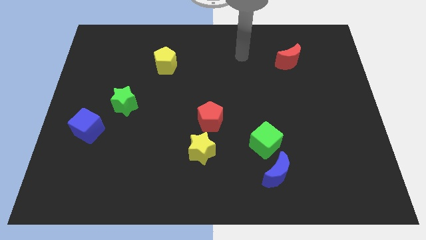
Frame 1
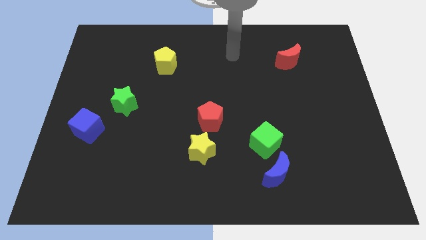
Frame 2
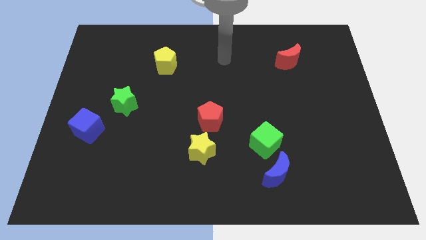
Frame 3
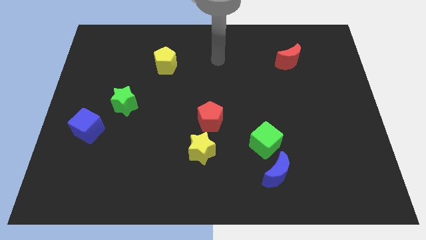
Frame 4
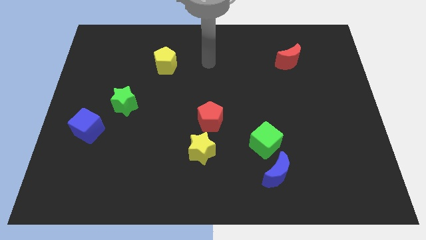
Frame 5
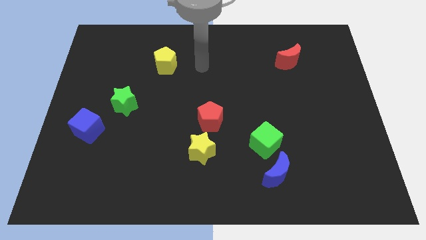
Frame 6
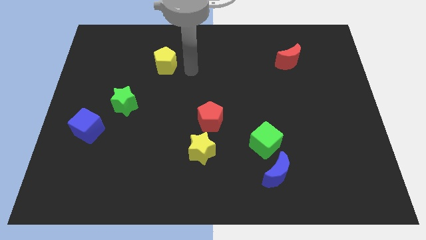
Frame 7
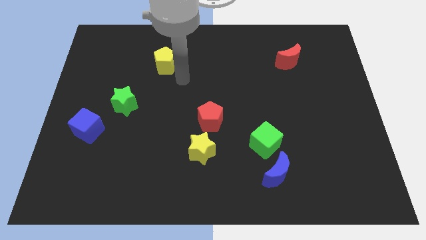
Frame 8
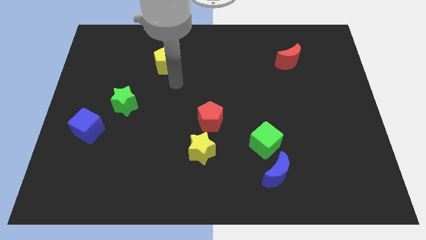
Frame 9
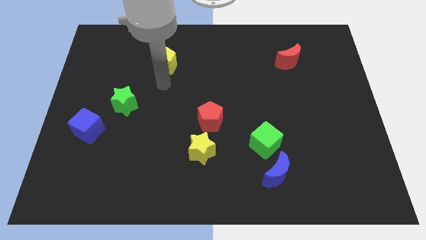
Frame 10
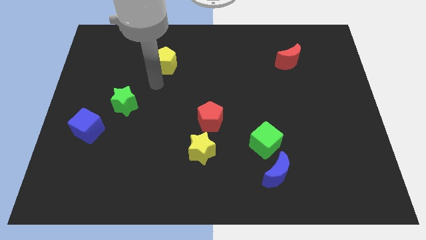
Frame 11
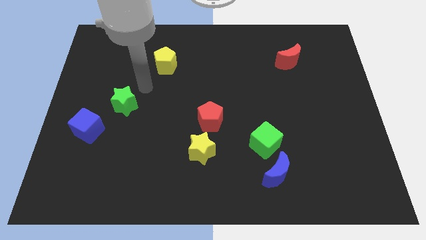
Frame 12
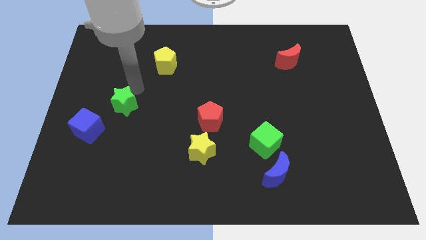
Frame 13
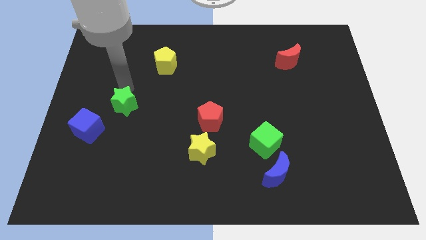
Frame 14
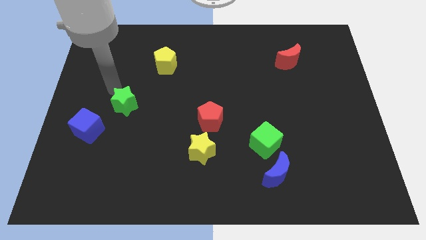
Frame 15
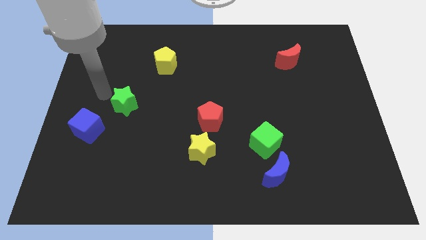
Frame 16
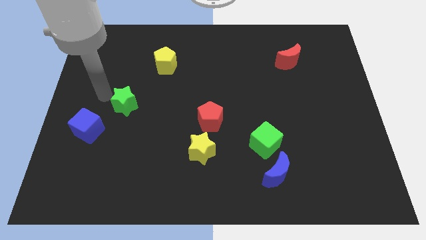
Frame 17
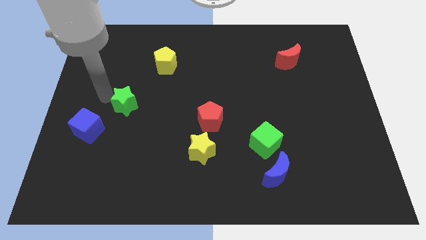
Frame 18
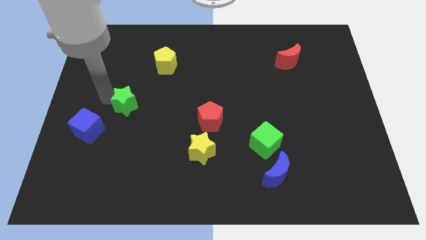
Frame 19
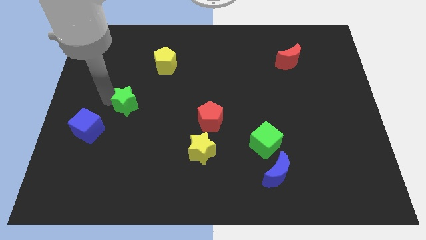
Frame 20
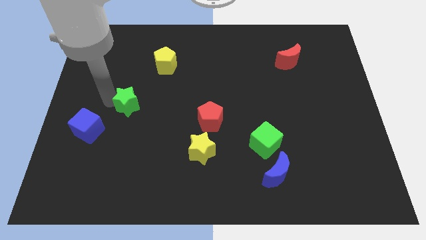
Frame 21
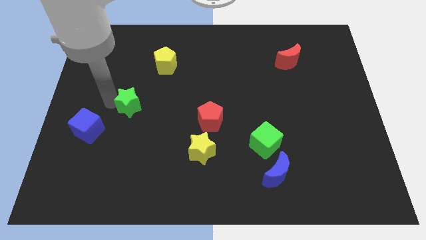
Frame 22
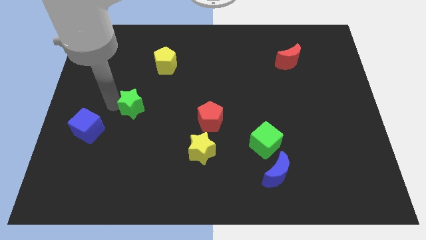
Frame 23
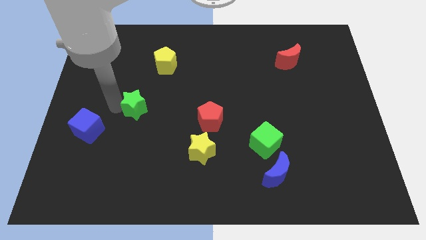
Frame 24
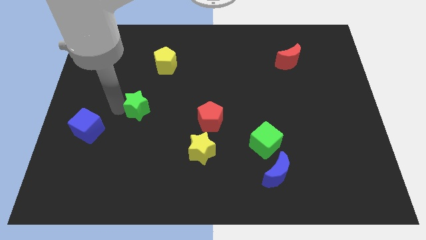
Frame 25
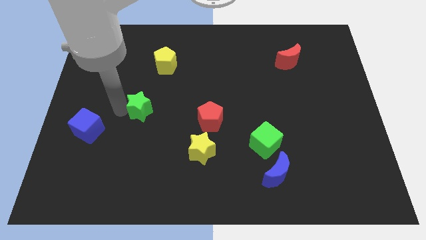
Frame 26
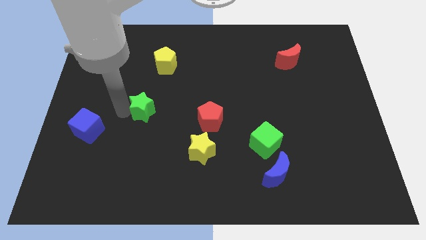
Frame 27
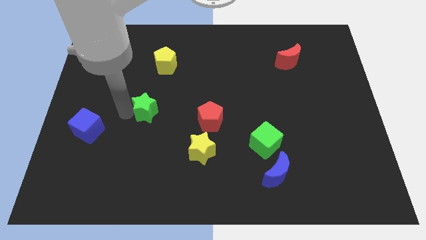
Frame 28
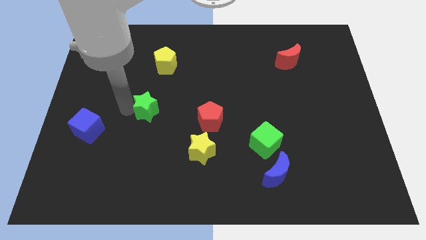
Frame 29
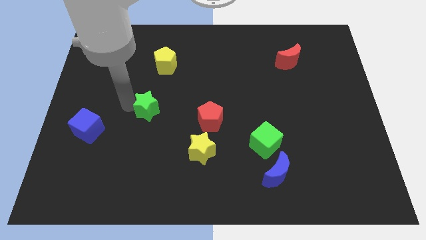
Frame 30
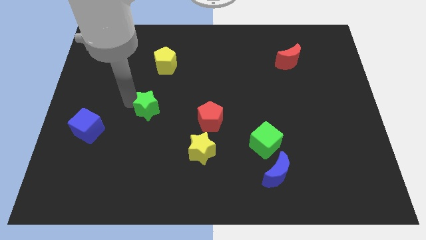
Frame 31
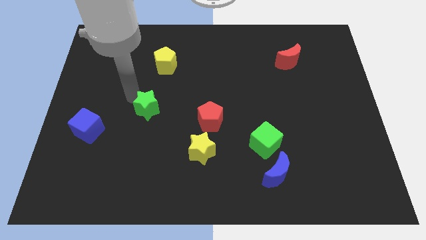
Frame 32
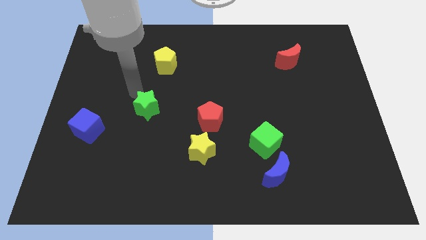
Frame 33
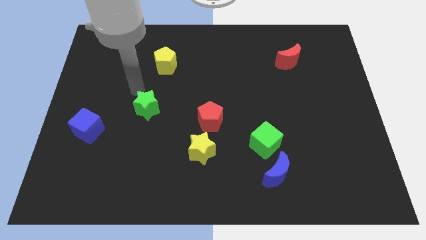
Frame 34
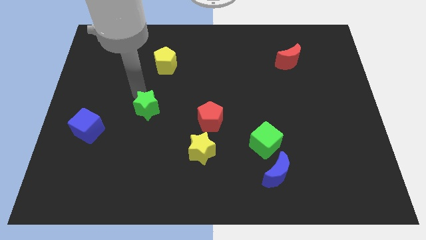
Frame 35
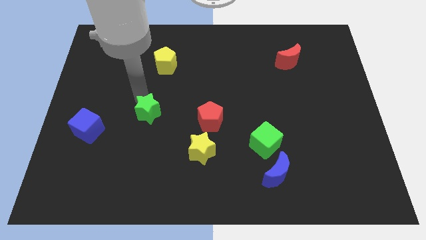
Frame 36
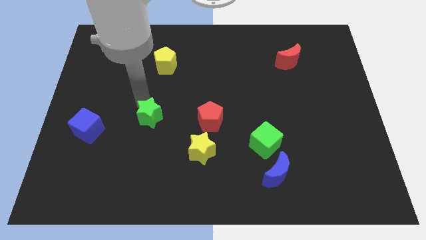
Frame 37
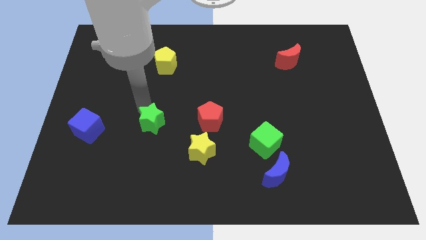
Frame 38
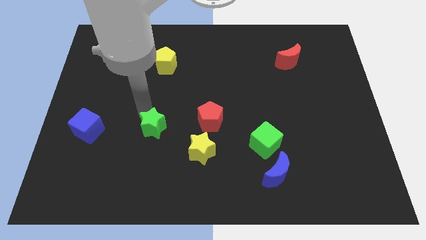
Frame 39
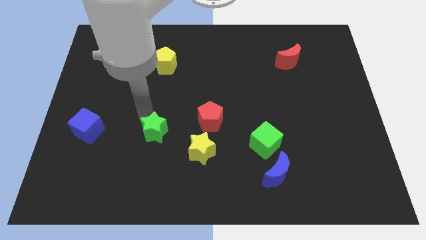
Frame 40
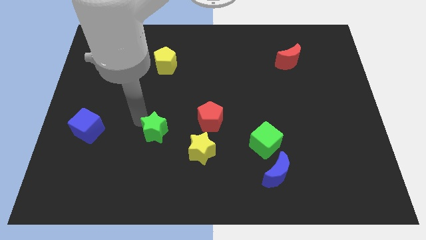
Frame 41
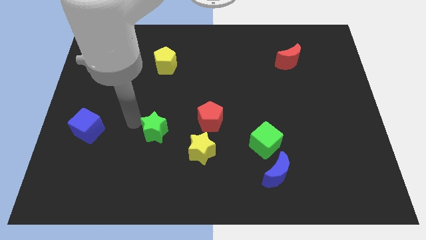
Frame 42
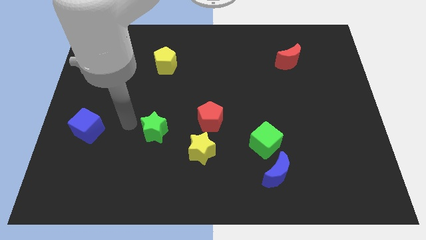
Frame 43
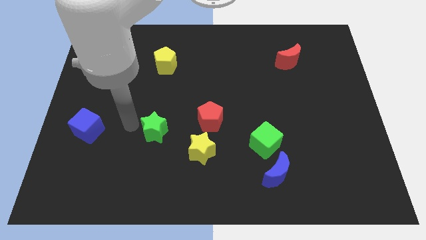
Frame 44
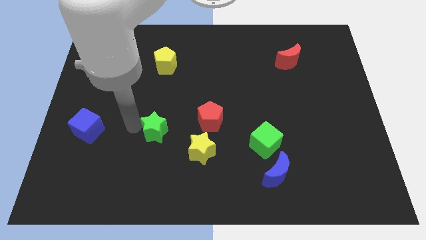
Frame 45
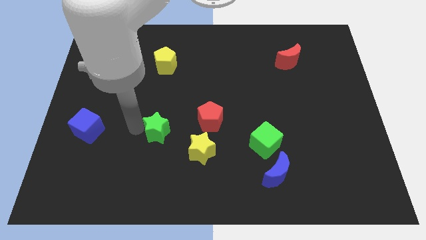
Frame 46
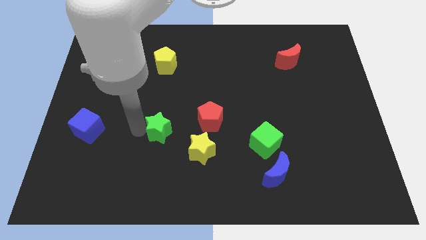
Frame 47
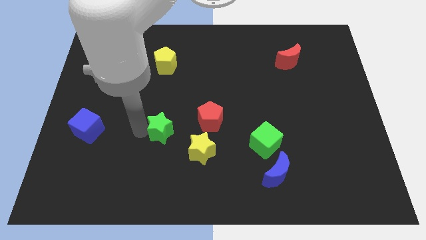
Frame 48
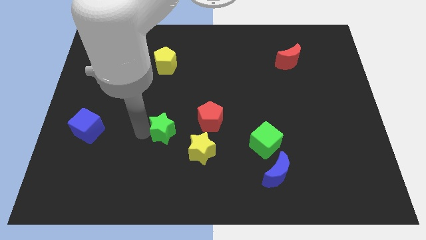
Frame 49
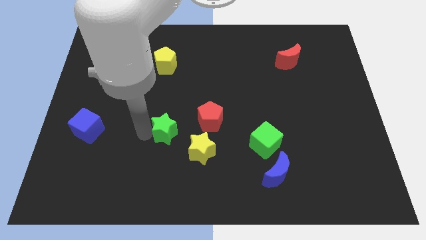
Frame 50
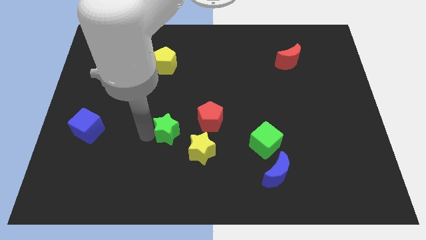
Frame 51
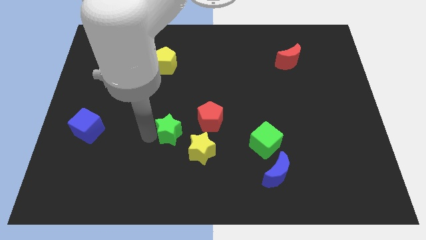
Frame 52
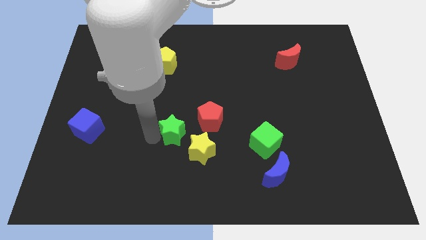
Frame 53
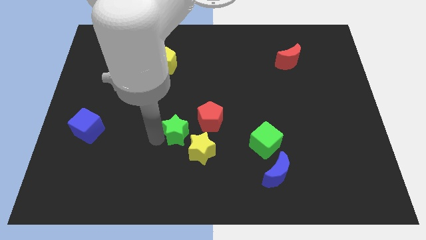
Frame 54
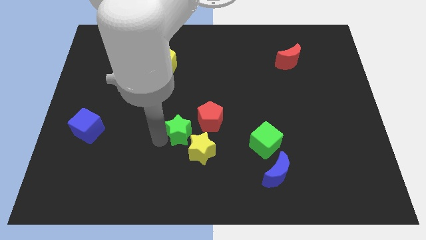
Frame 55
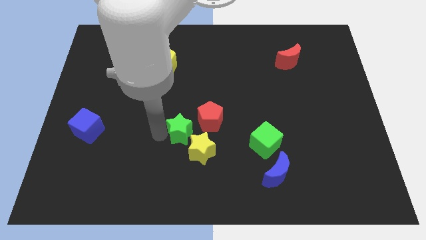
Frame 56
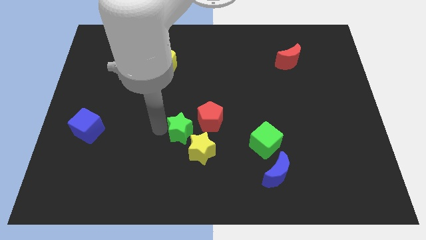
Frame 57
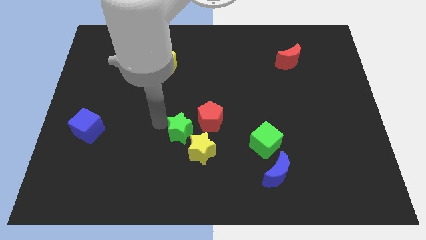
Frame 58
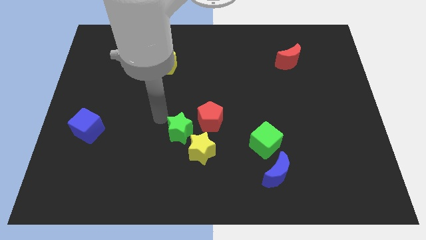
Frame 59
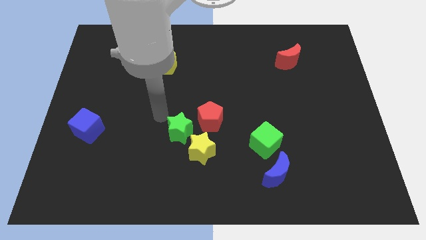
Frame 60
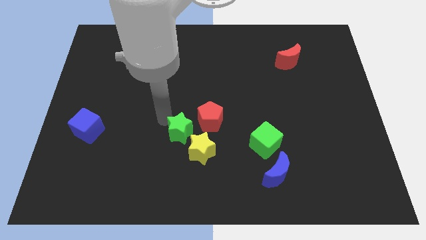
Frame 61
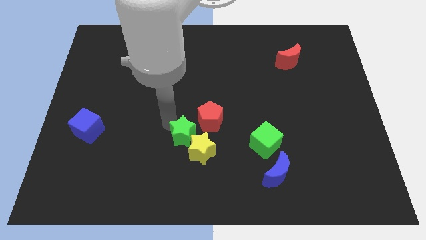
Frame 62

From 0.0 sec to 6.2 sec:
put the green star to the yellow star
